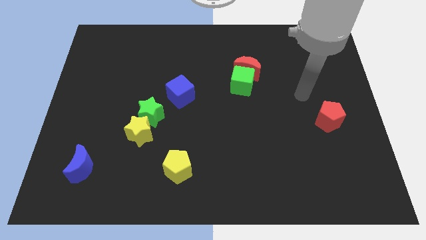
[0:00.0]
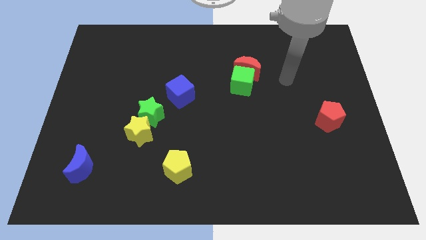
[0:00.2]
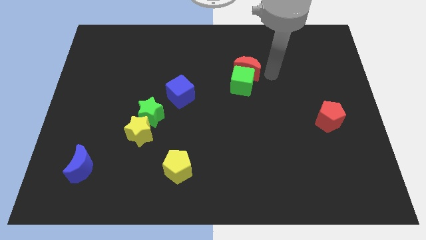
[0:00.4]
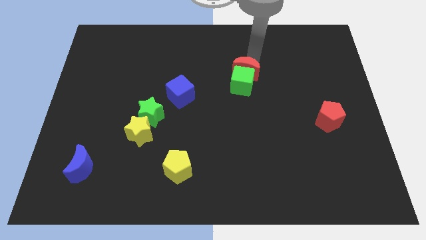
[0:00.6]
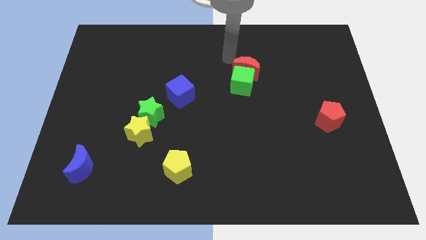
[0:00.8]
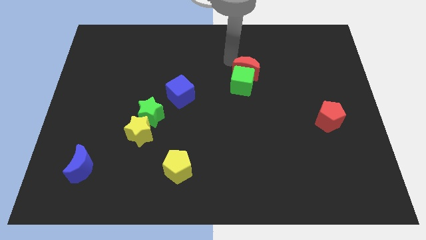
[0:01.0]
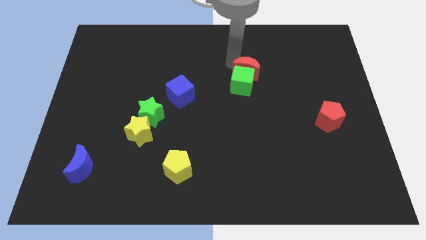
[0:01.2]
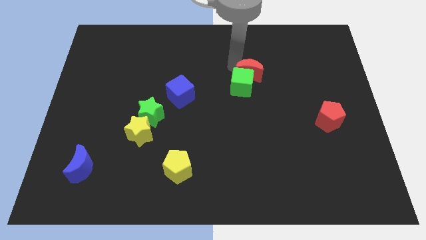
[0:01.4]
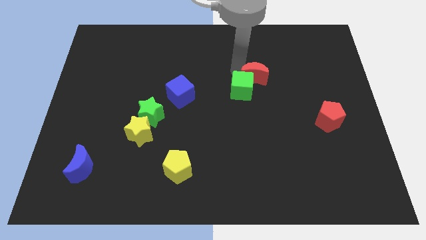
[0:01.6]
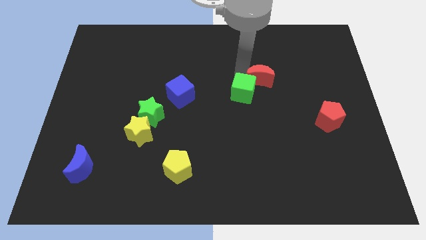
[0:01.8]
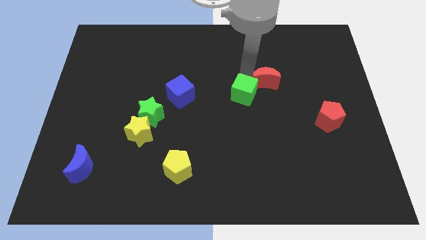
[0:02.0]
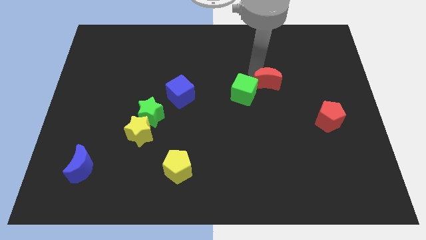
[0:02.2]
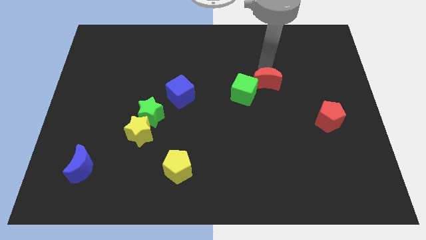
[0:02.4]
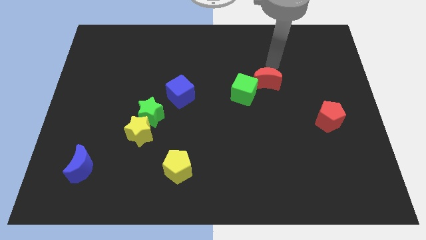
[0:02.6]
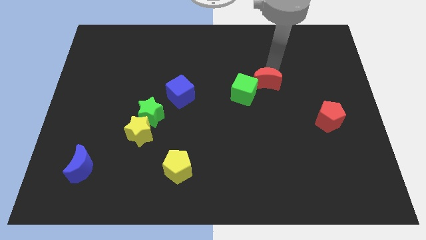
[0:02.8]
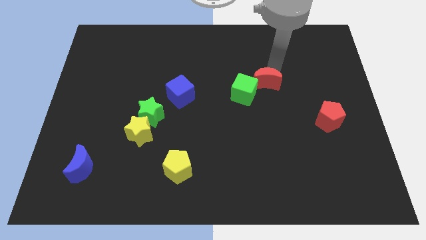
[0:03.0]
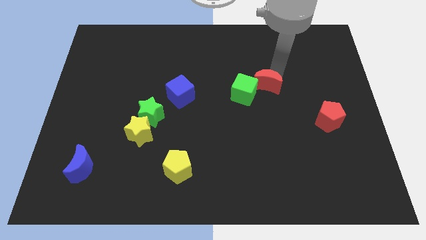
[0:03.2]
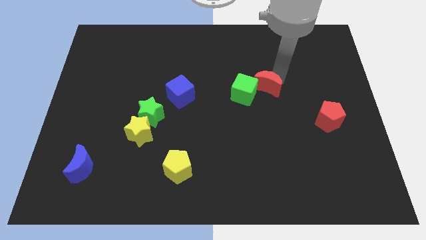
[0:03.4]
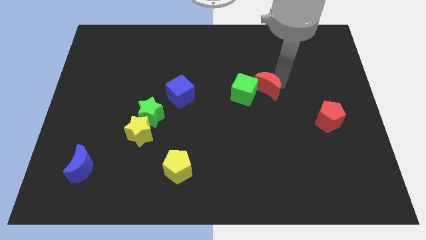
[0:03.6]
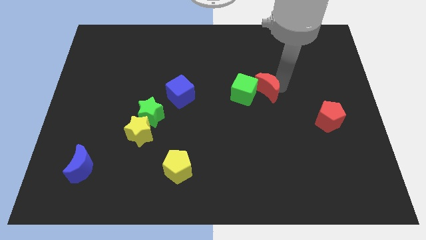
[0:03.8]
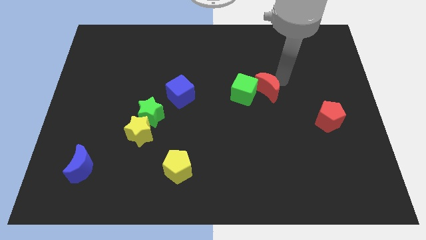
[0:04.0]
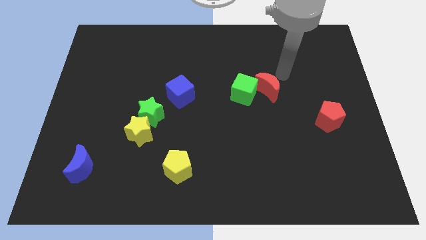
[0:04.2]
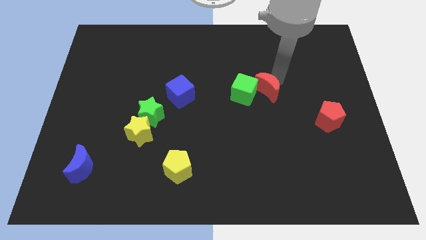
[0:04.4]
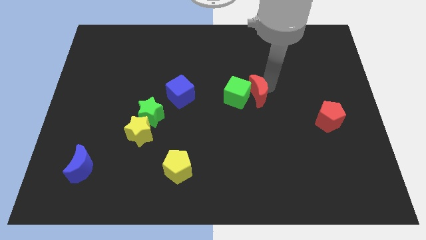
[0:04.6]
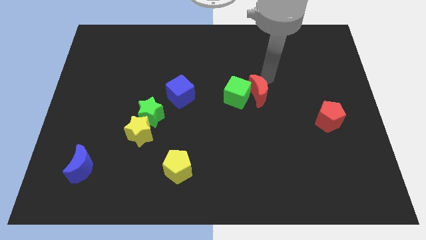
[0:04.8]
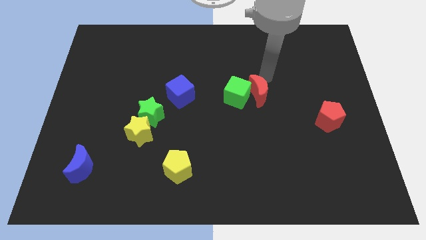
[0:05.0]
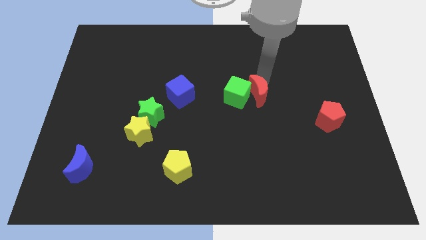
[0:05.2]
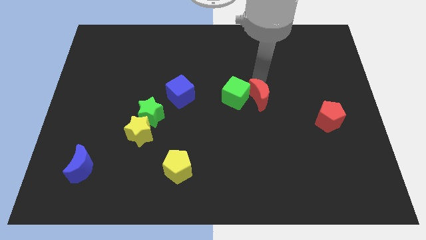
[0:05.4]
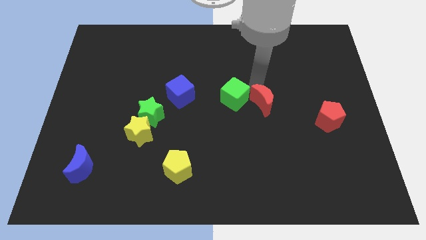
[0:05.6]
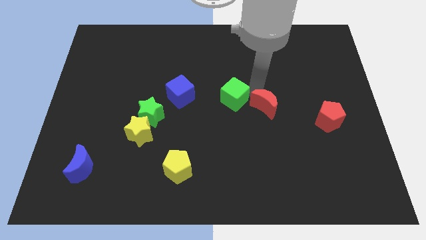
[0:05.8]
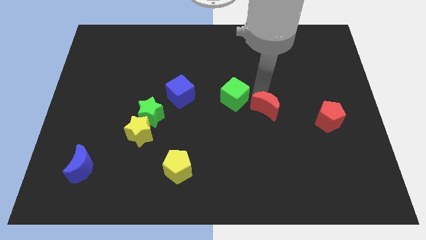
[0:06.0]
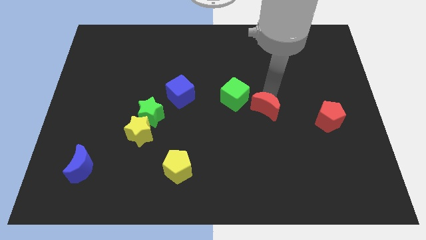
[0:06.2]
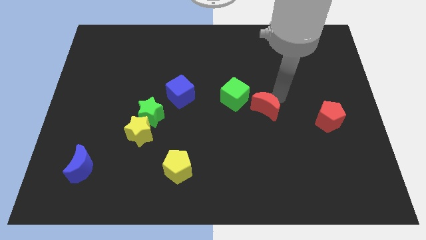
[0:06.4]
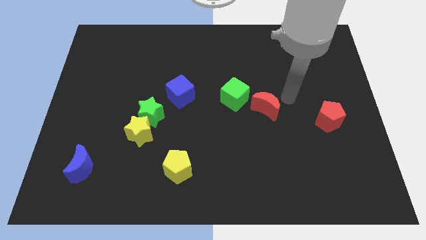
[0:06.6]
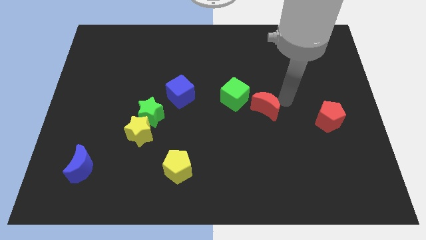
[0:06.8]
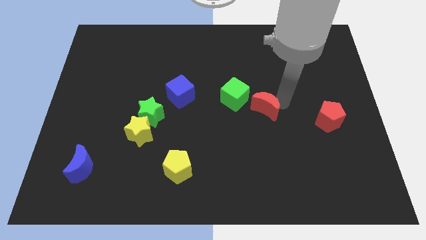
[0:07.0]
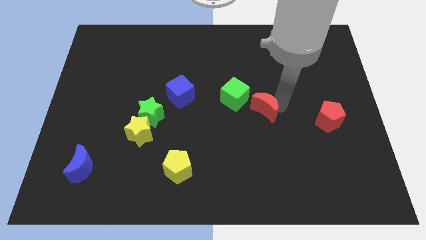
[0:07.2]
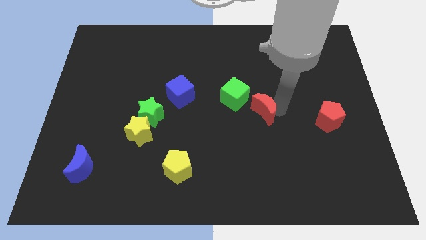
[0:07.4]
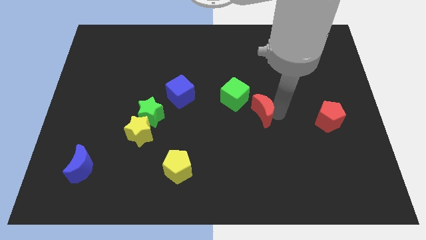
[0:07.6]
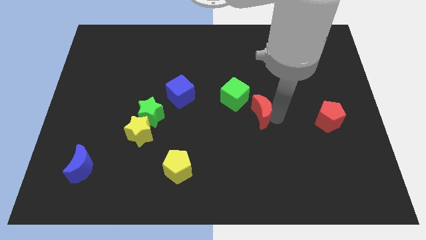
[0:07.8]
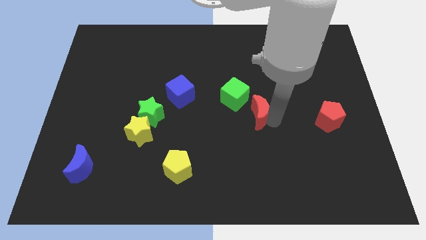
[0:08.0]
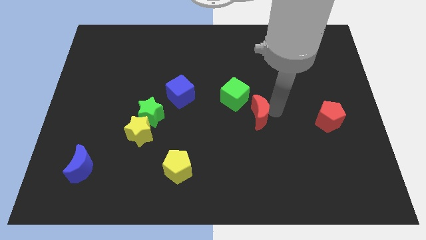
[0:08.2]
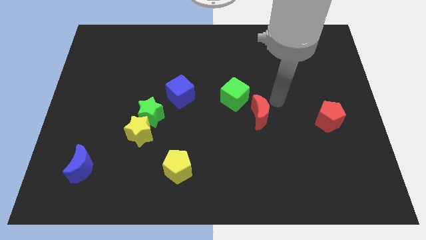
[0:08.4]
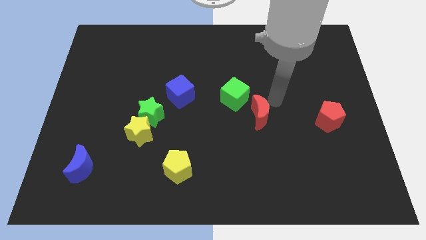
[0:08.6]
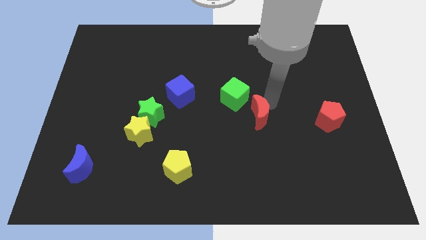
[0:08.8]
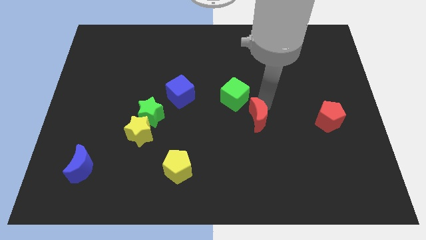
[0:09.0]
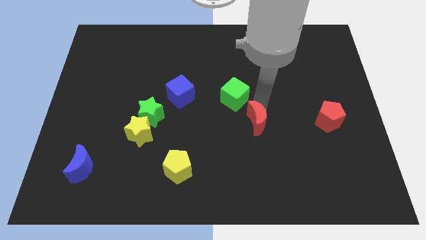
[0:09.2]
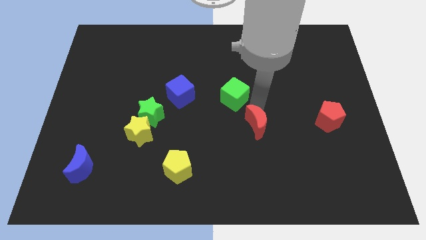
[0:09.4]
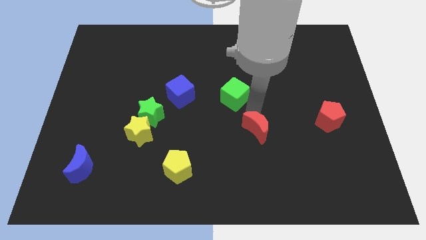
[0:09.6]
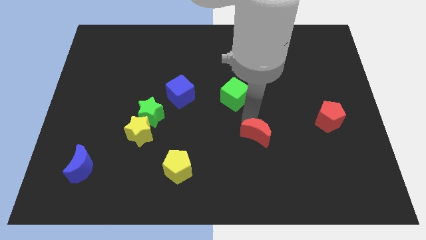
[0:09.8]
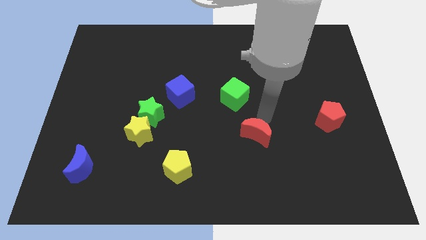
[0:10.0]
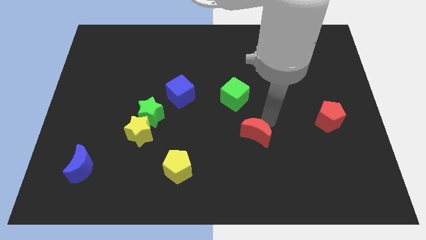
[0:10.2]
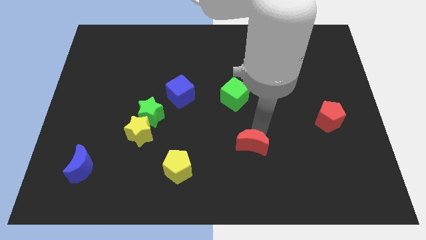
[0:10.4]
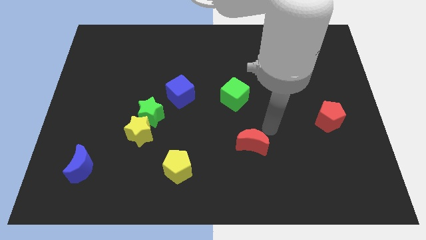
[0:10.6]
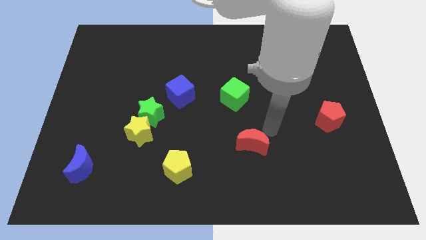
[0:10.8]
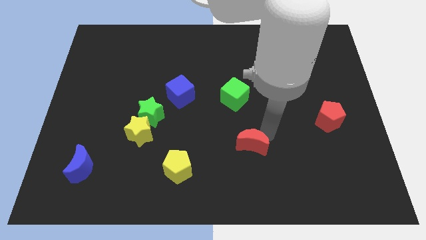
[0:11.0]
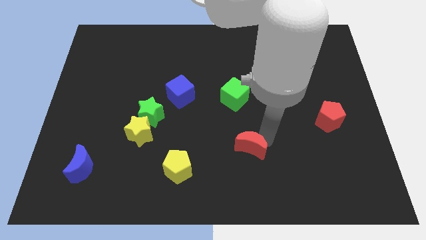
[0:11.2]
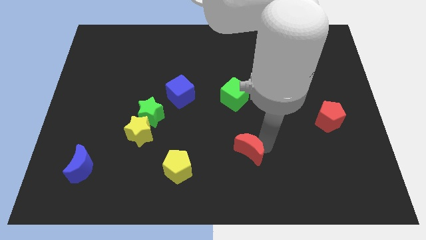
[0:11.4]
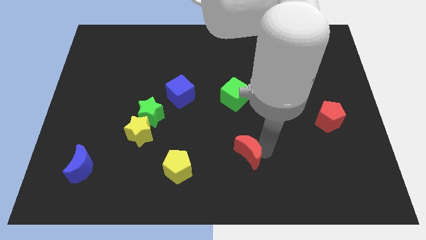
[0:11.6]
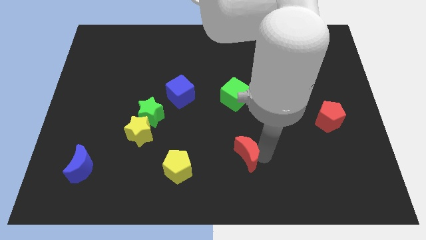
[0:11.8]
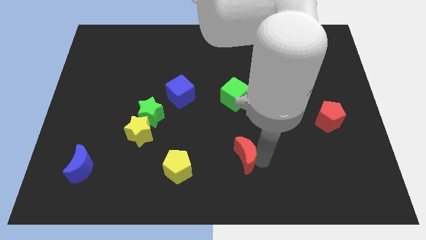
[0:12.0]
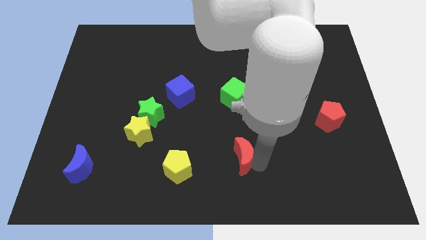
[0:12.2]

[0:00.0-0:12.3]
put the red moon to the bottom
